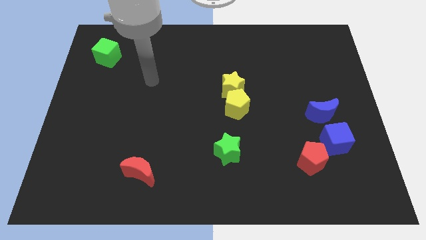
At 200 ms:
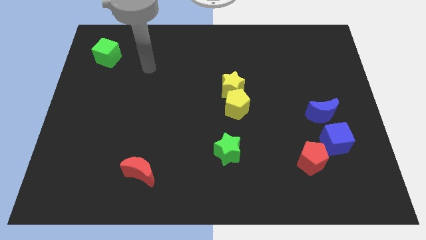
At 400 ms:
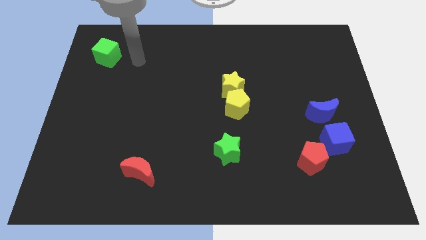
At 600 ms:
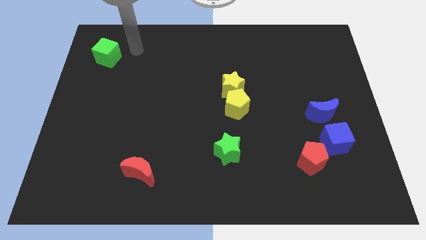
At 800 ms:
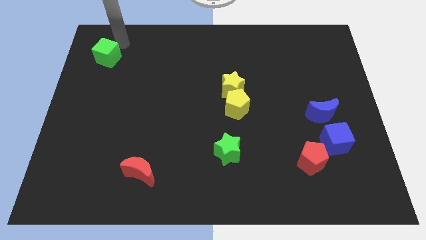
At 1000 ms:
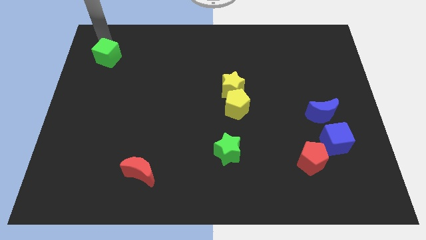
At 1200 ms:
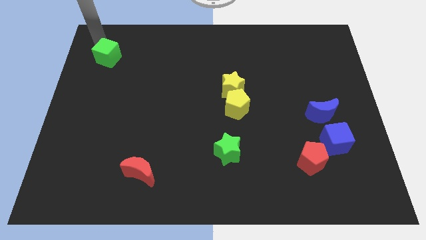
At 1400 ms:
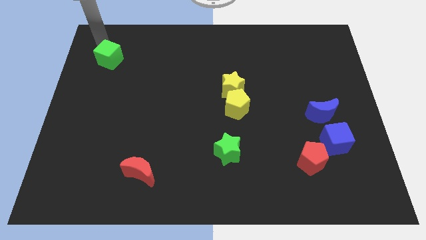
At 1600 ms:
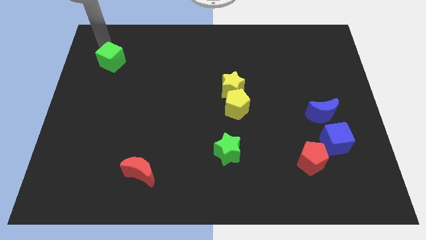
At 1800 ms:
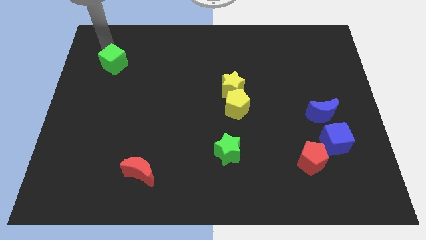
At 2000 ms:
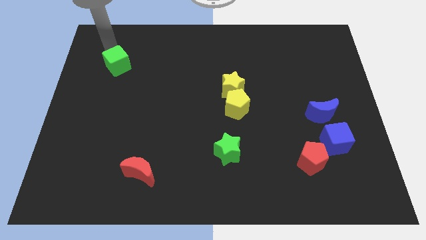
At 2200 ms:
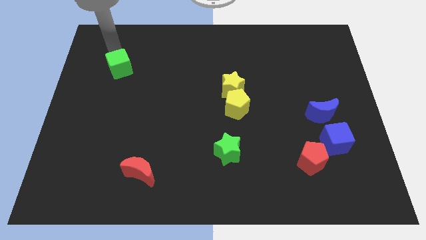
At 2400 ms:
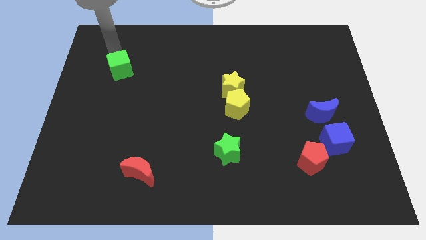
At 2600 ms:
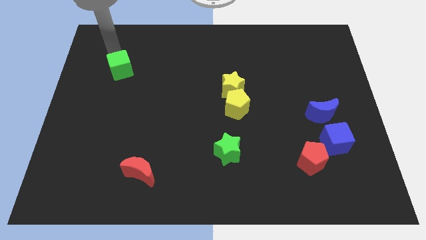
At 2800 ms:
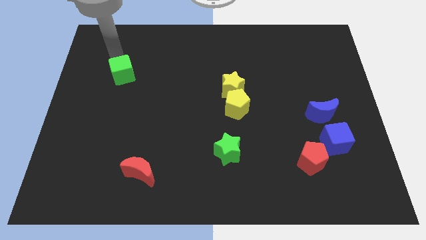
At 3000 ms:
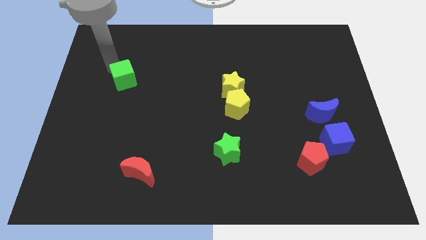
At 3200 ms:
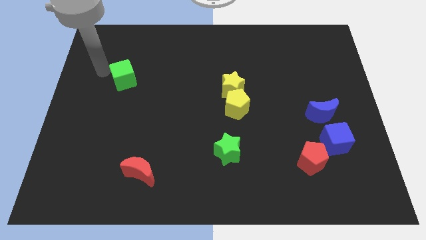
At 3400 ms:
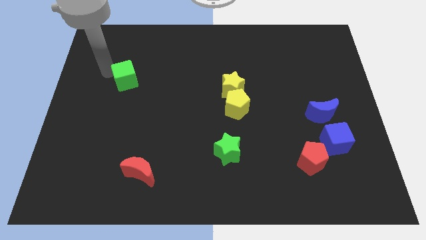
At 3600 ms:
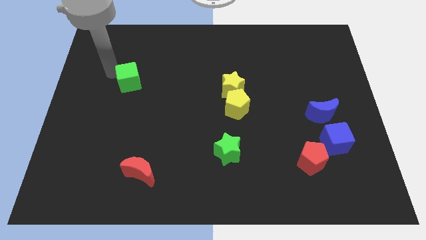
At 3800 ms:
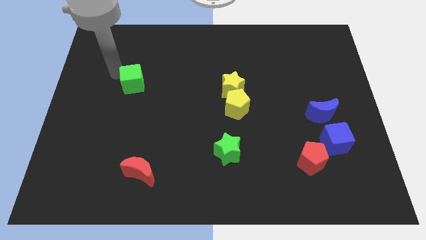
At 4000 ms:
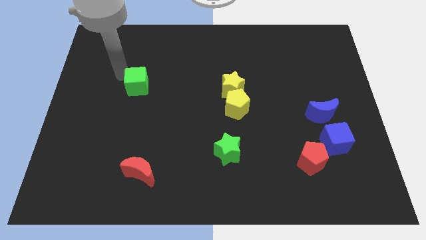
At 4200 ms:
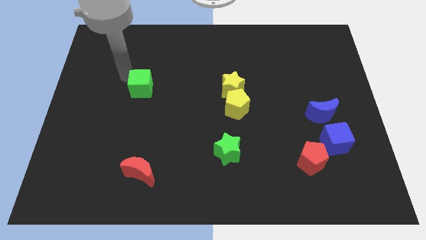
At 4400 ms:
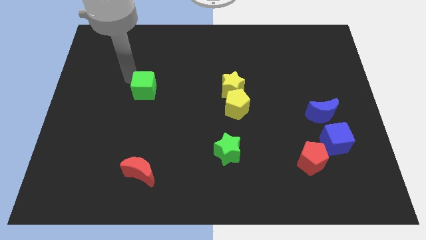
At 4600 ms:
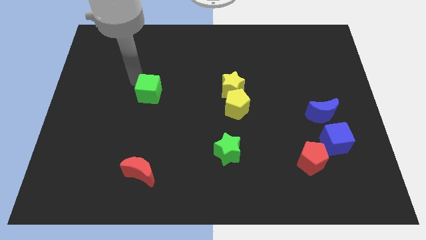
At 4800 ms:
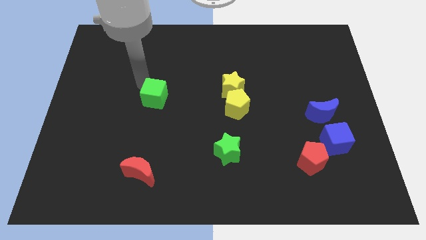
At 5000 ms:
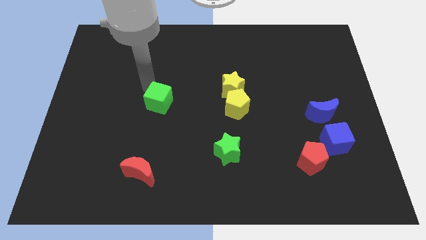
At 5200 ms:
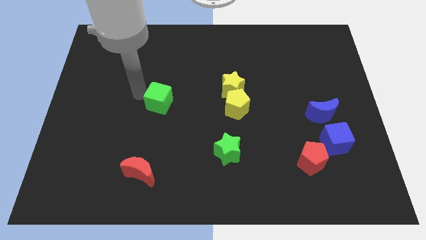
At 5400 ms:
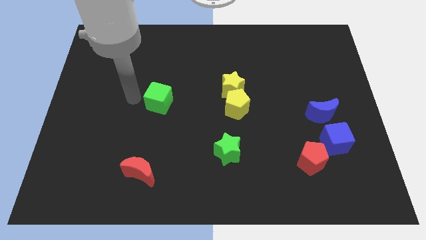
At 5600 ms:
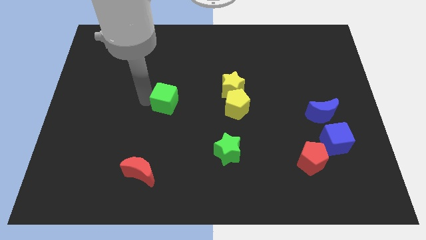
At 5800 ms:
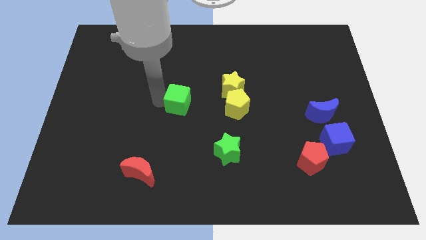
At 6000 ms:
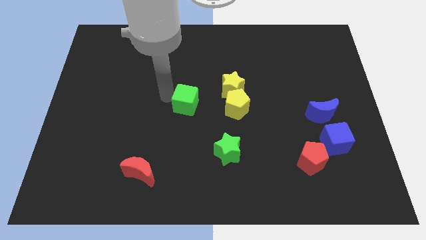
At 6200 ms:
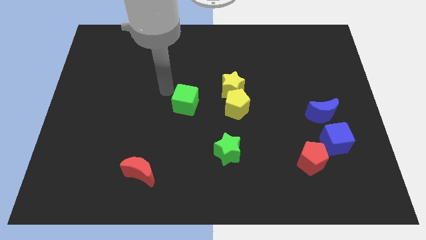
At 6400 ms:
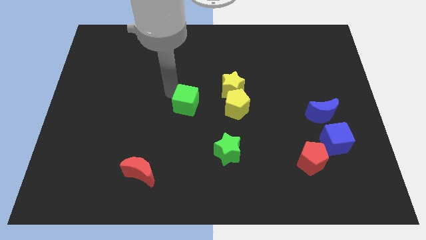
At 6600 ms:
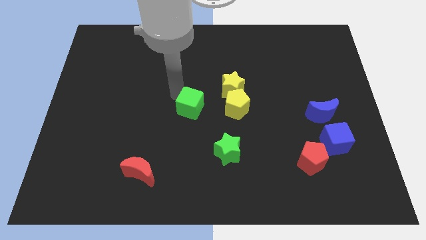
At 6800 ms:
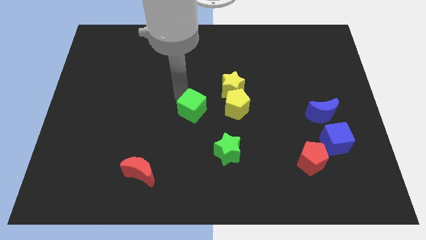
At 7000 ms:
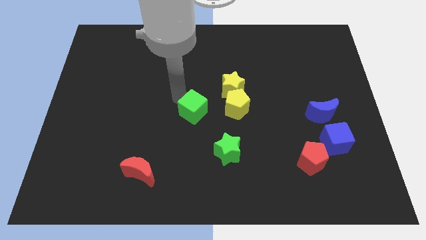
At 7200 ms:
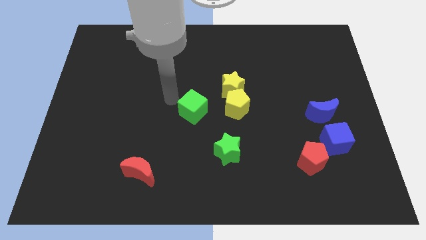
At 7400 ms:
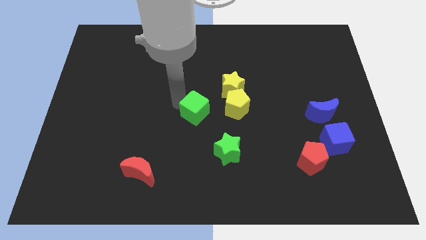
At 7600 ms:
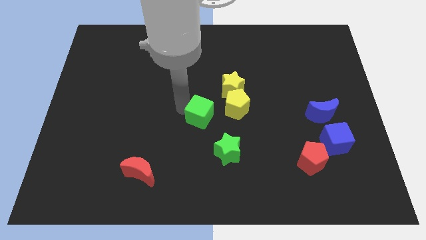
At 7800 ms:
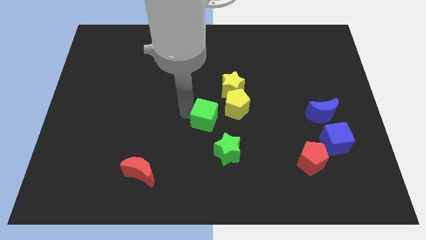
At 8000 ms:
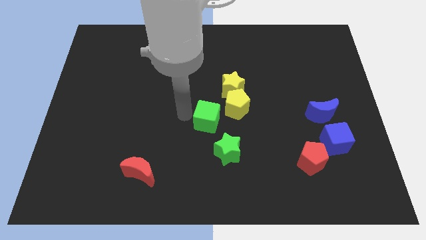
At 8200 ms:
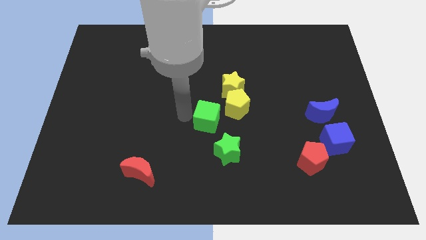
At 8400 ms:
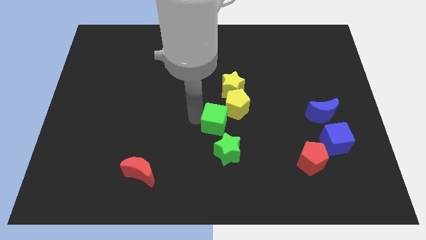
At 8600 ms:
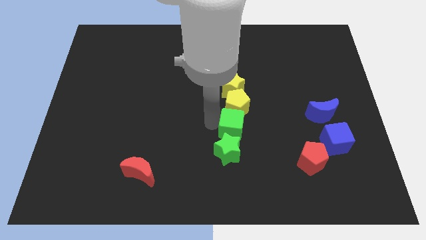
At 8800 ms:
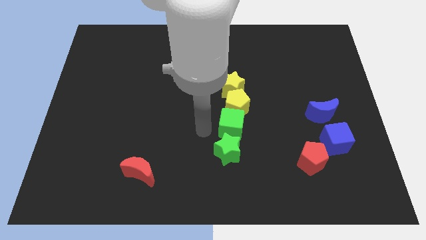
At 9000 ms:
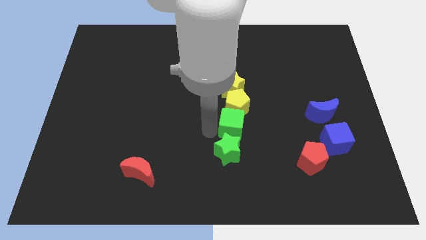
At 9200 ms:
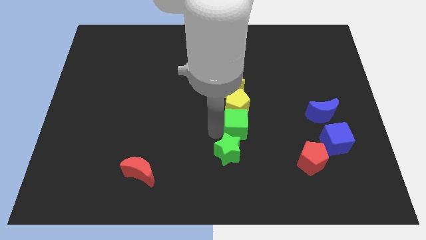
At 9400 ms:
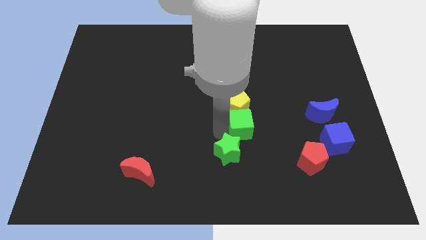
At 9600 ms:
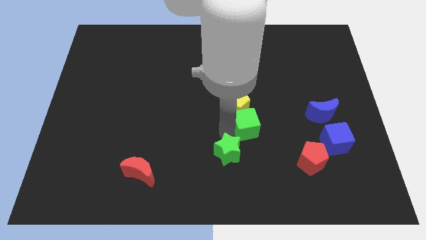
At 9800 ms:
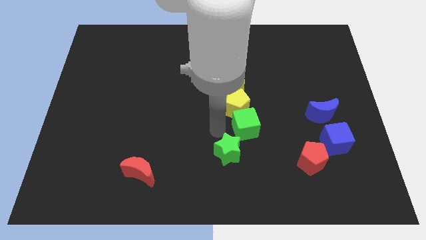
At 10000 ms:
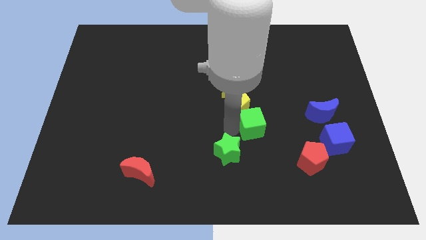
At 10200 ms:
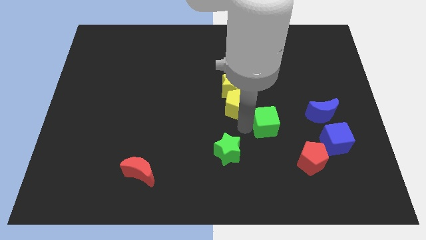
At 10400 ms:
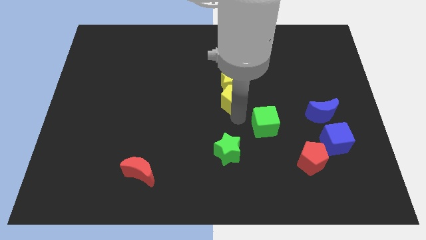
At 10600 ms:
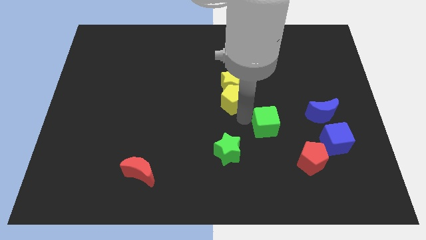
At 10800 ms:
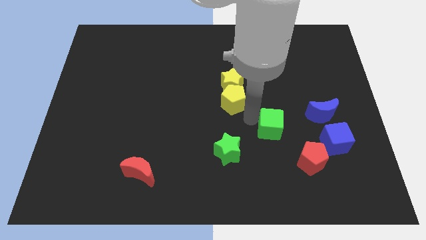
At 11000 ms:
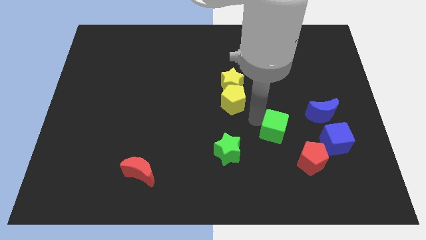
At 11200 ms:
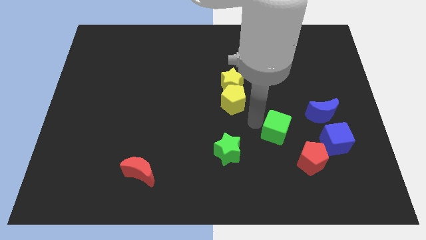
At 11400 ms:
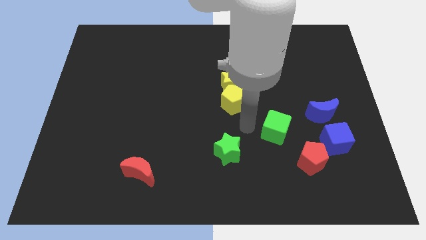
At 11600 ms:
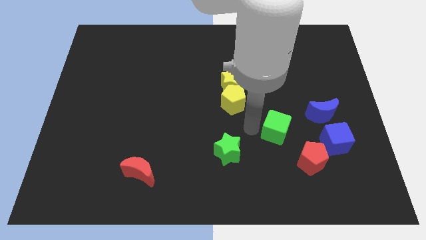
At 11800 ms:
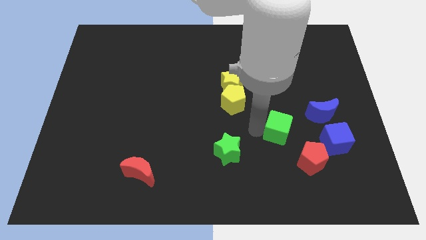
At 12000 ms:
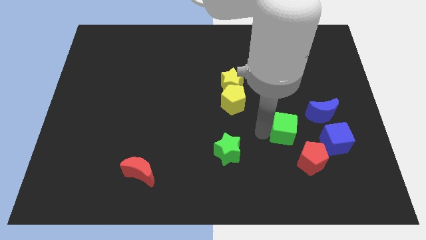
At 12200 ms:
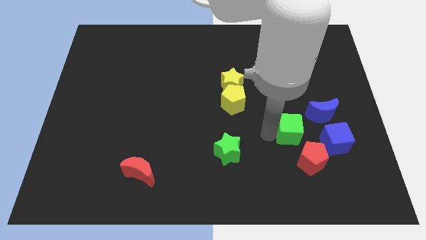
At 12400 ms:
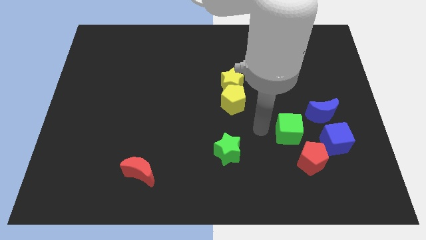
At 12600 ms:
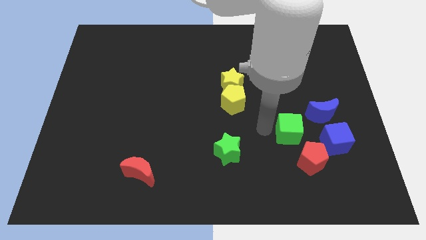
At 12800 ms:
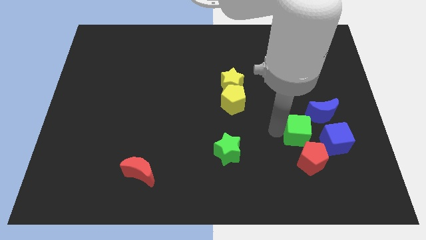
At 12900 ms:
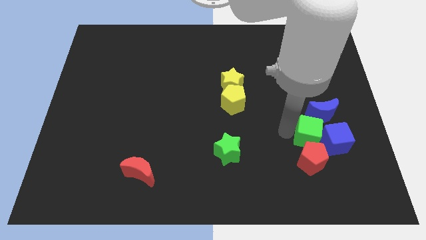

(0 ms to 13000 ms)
put the green cube towards the blue cube

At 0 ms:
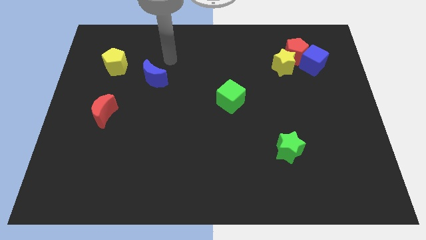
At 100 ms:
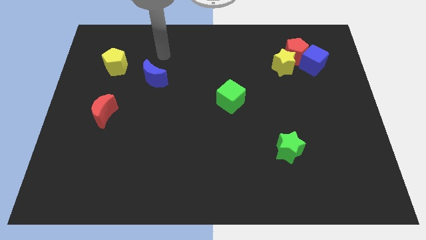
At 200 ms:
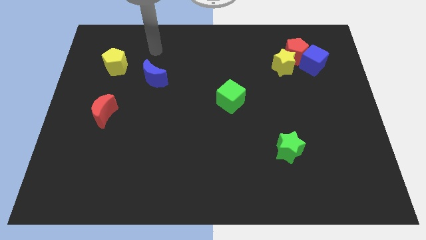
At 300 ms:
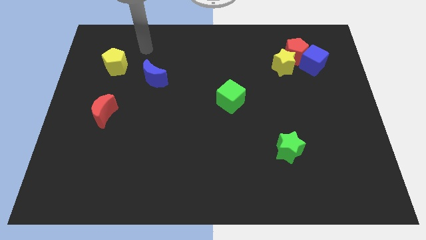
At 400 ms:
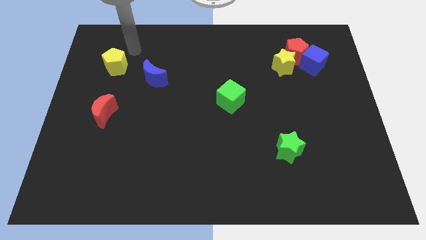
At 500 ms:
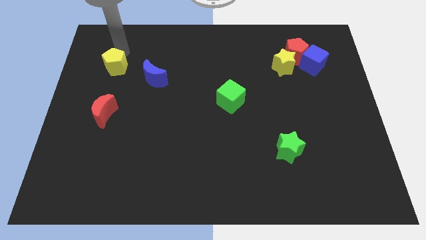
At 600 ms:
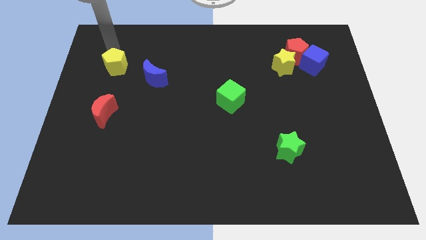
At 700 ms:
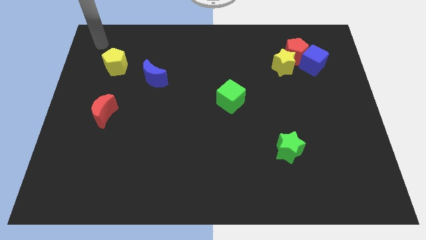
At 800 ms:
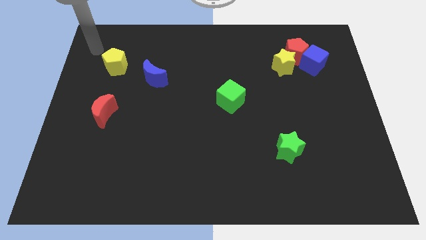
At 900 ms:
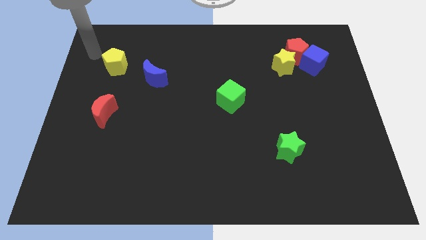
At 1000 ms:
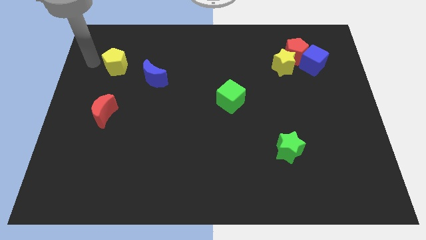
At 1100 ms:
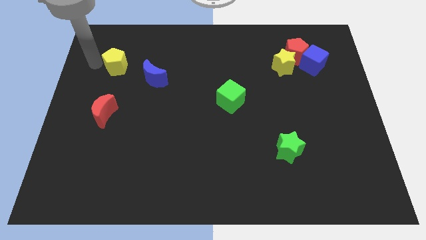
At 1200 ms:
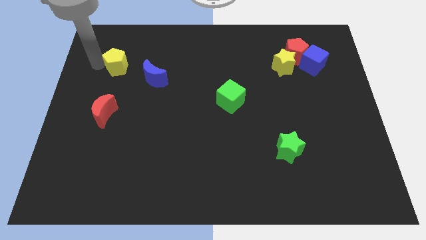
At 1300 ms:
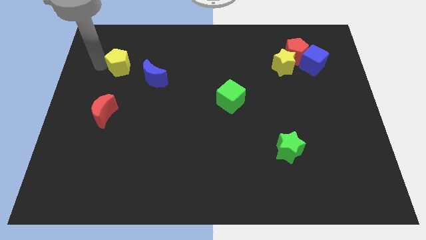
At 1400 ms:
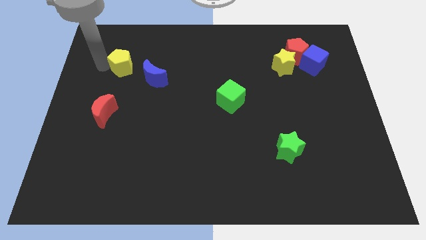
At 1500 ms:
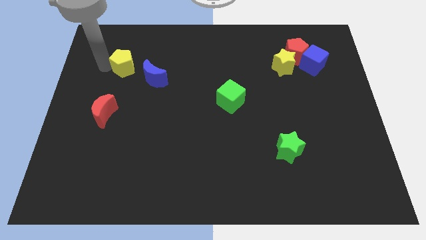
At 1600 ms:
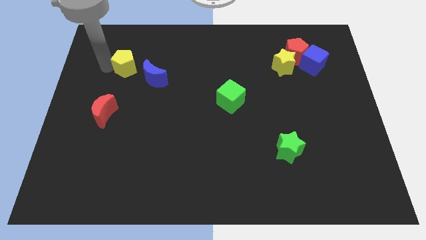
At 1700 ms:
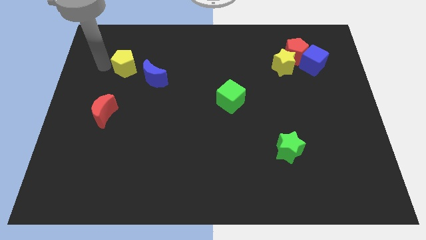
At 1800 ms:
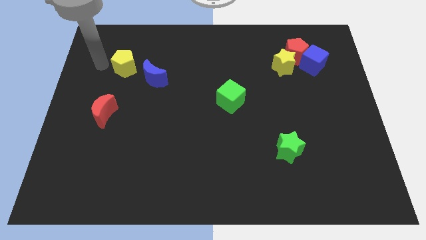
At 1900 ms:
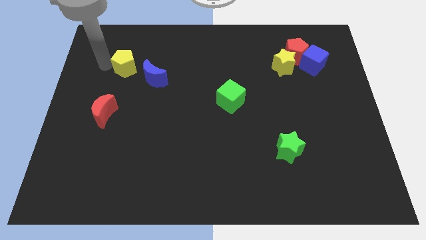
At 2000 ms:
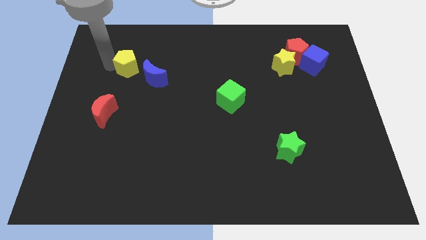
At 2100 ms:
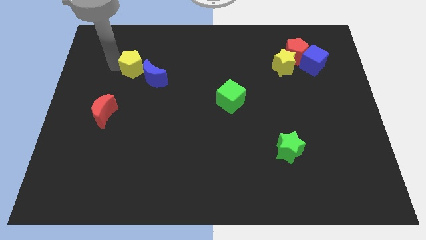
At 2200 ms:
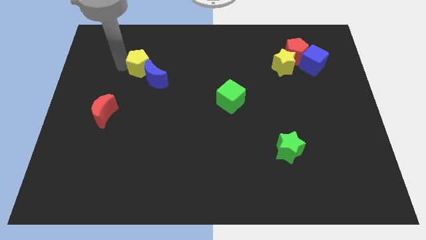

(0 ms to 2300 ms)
push the yellow pentagon close to the blue moon
